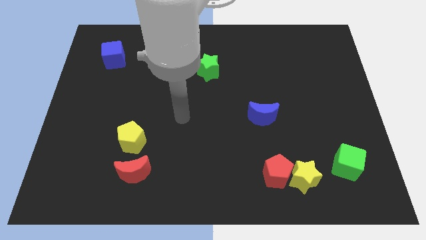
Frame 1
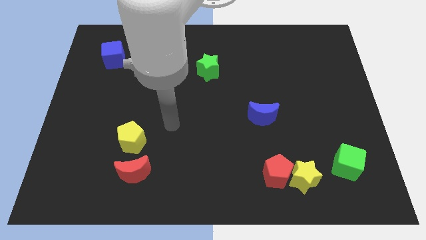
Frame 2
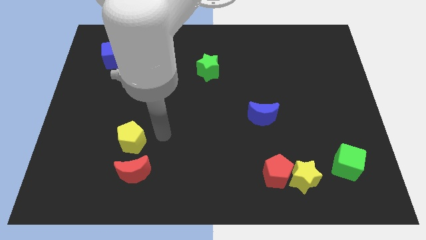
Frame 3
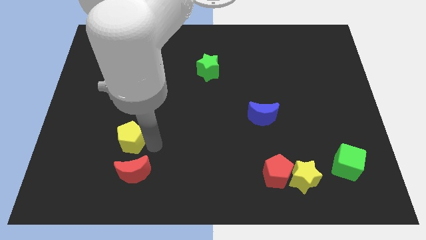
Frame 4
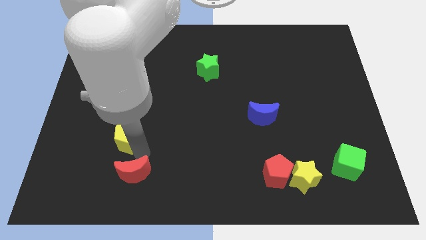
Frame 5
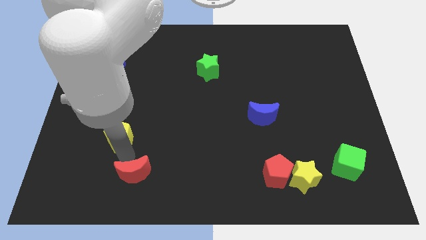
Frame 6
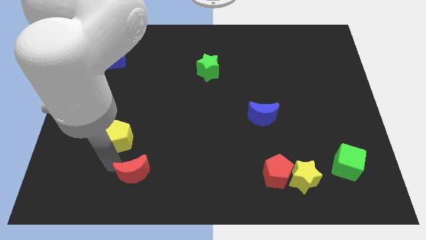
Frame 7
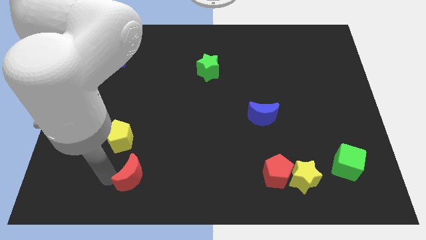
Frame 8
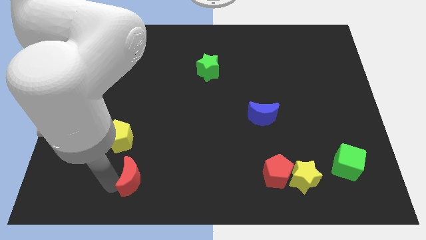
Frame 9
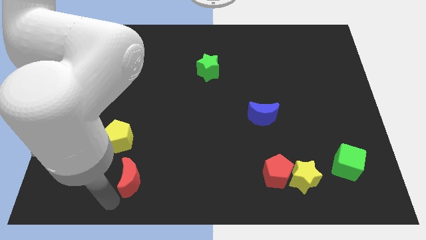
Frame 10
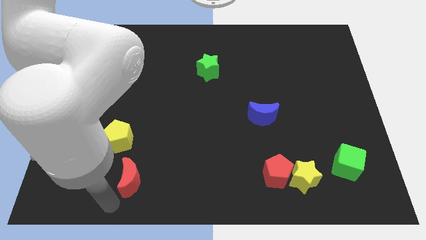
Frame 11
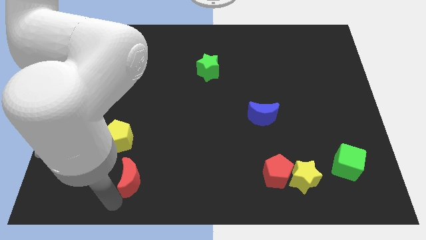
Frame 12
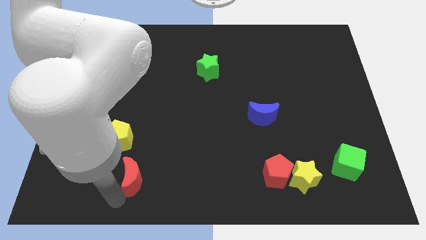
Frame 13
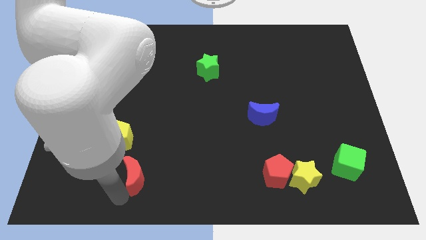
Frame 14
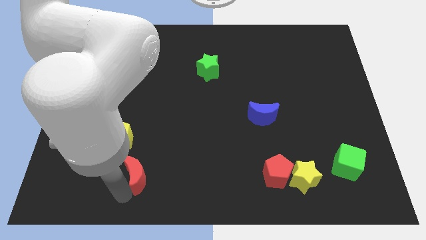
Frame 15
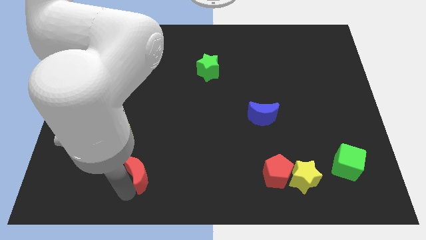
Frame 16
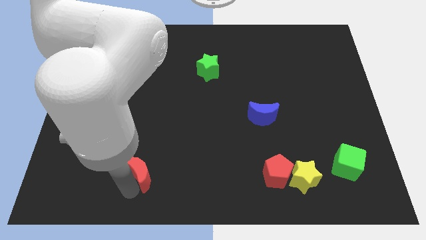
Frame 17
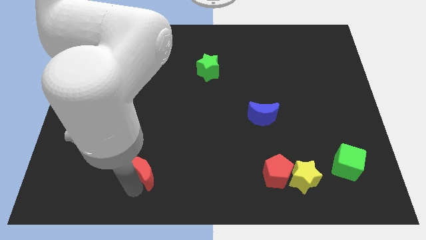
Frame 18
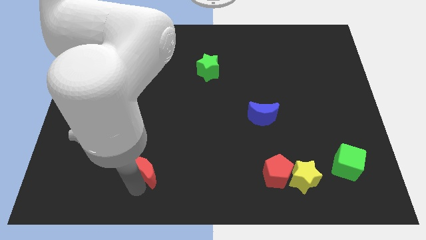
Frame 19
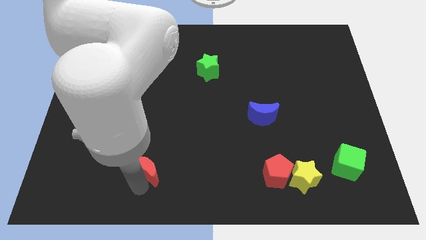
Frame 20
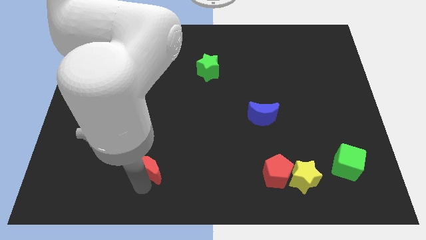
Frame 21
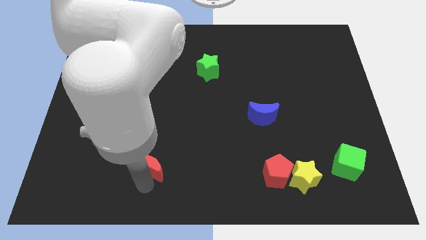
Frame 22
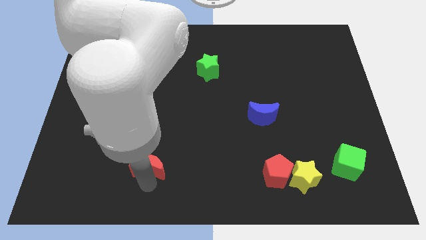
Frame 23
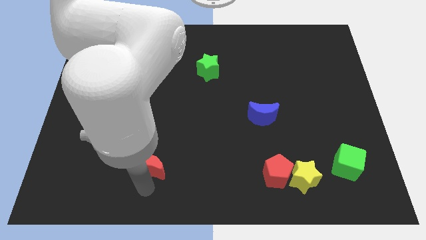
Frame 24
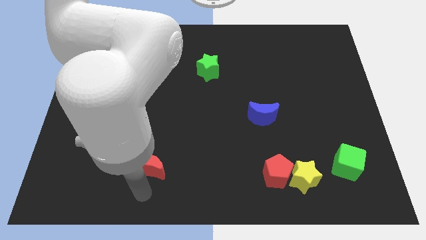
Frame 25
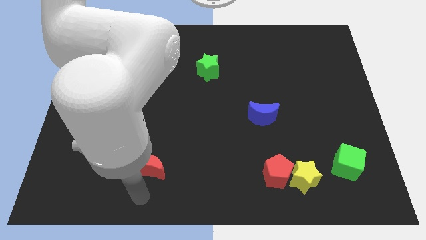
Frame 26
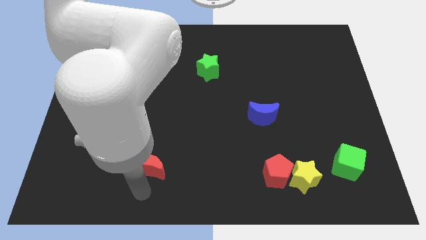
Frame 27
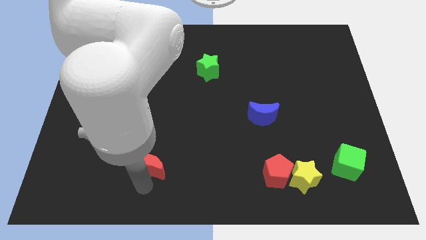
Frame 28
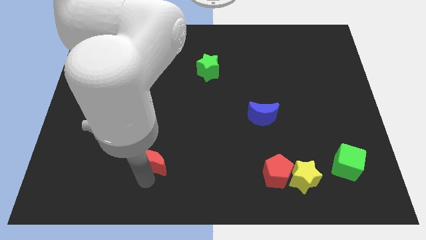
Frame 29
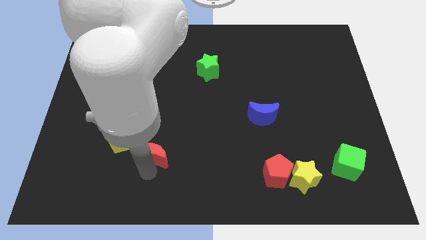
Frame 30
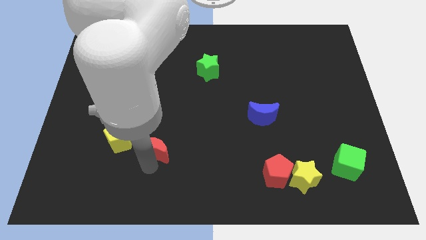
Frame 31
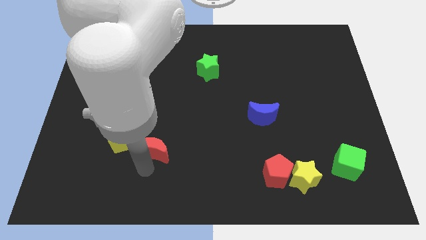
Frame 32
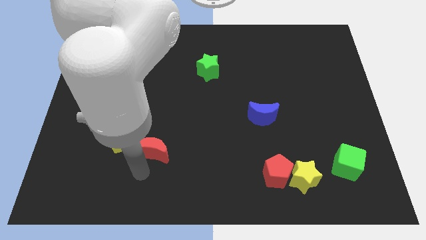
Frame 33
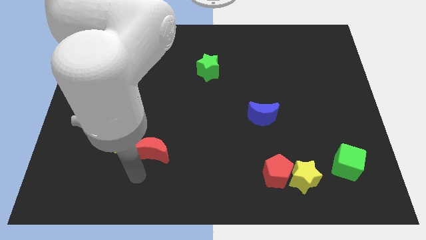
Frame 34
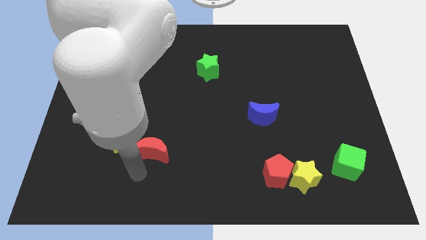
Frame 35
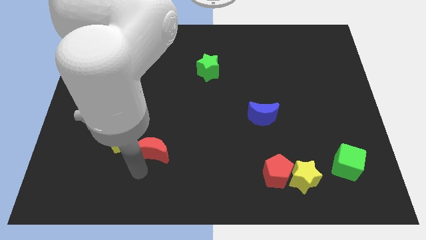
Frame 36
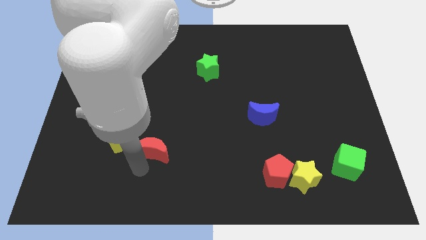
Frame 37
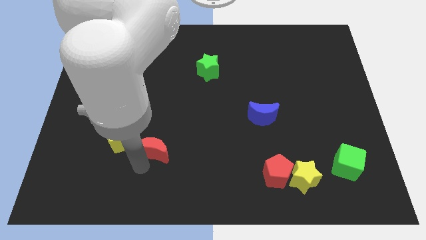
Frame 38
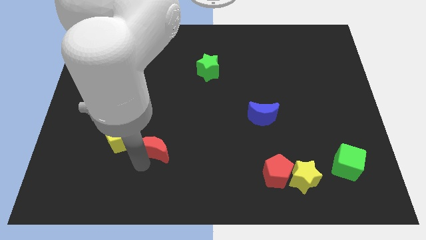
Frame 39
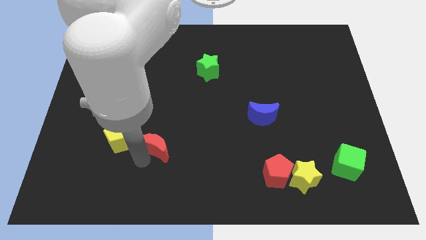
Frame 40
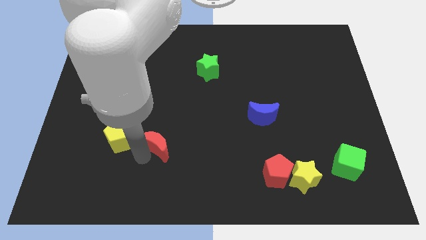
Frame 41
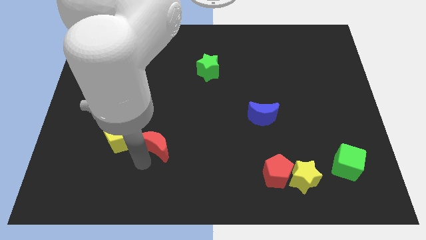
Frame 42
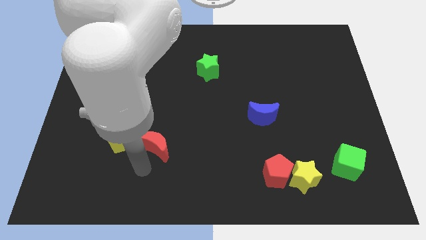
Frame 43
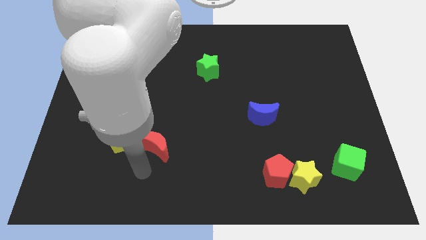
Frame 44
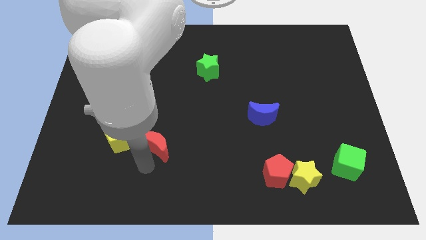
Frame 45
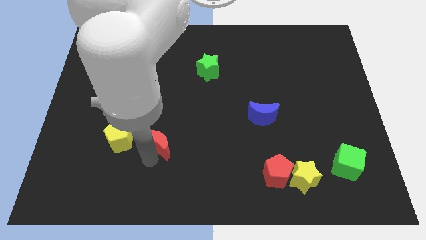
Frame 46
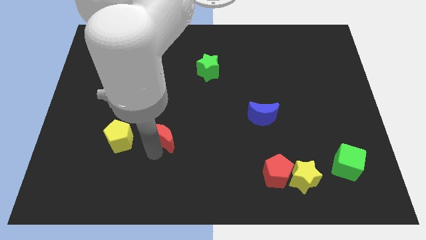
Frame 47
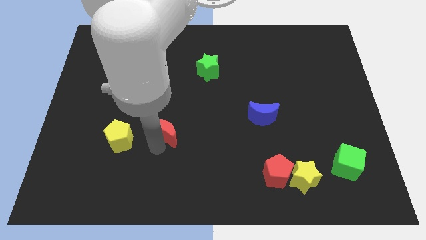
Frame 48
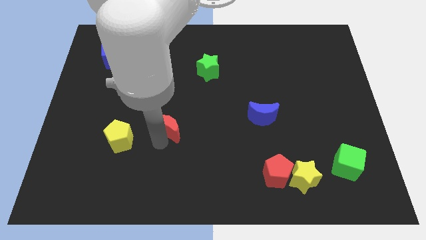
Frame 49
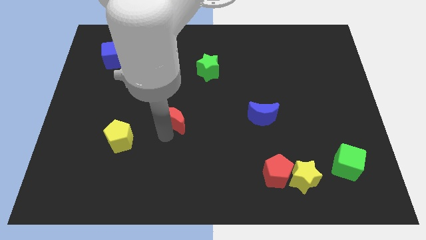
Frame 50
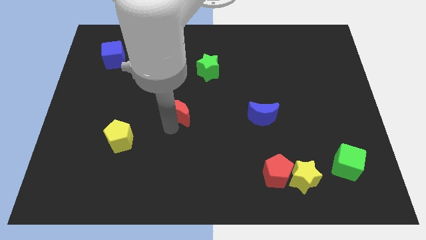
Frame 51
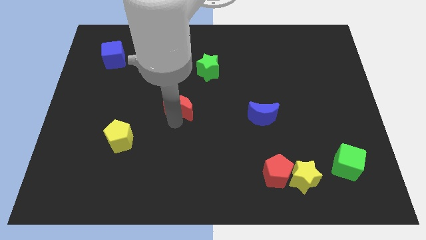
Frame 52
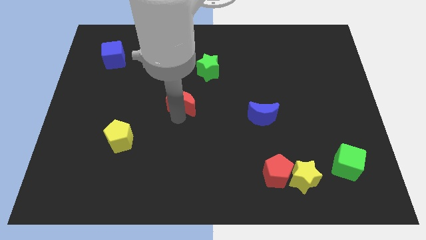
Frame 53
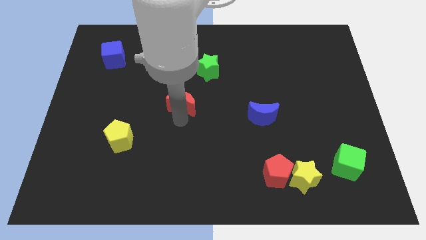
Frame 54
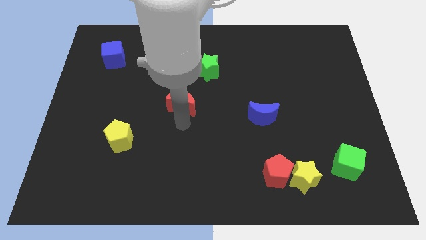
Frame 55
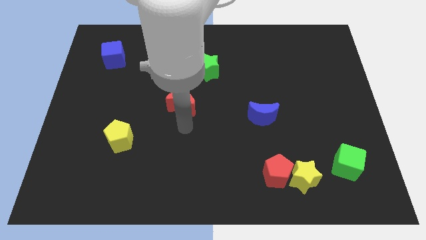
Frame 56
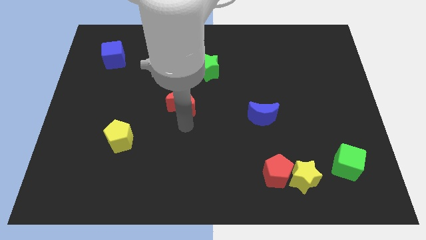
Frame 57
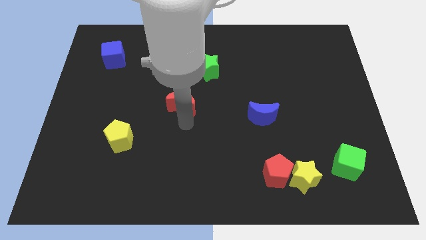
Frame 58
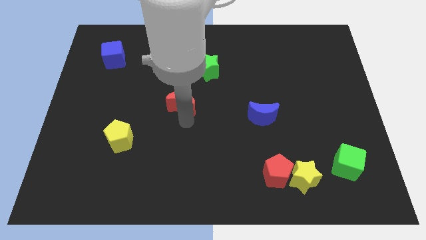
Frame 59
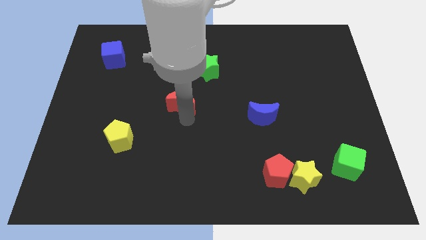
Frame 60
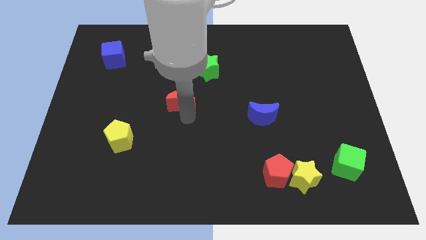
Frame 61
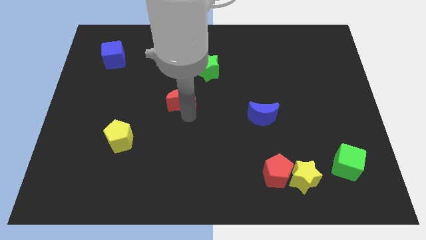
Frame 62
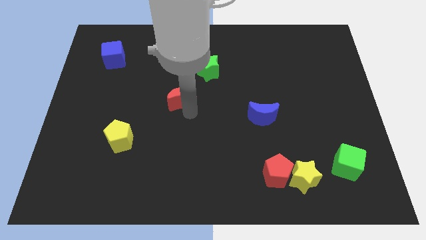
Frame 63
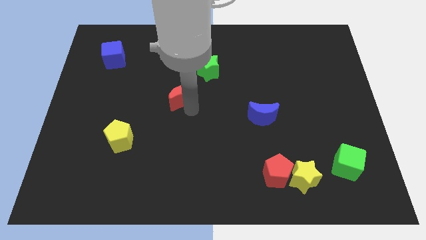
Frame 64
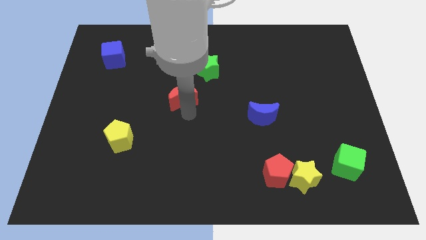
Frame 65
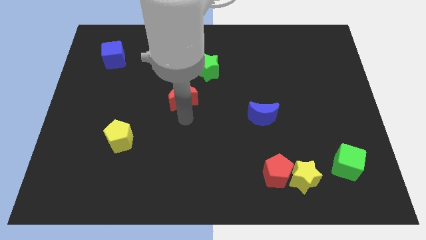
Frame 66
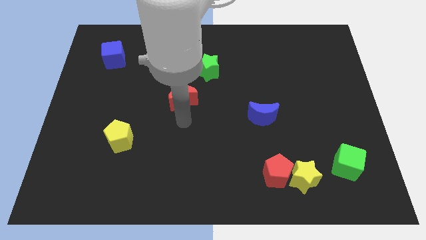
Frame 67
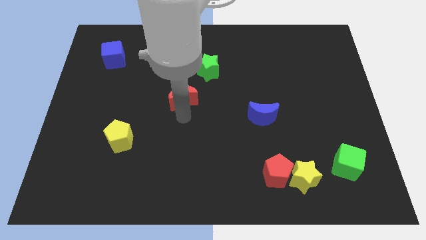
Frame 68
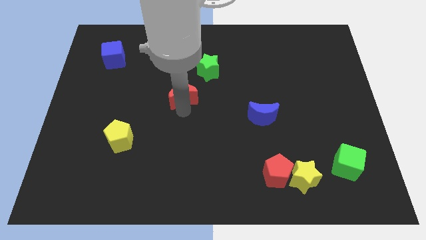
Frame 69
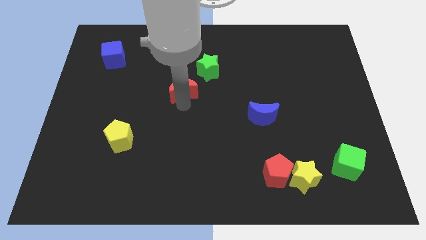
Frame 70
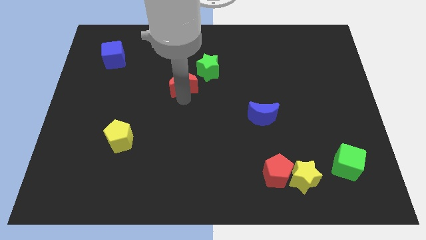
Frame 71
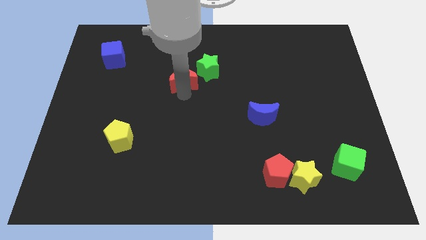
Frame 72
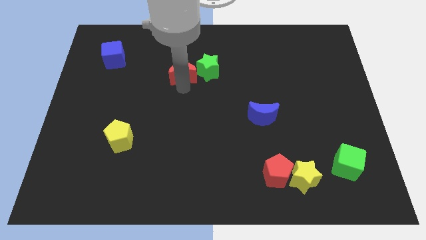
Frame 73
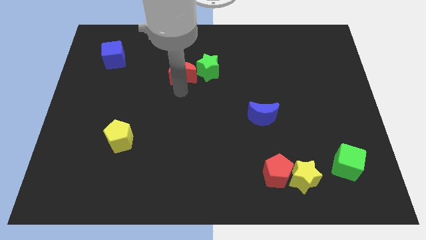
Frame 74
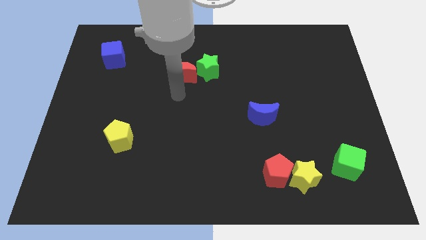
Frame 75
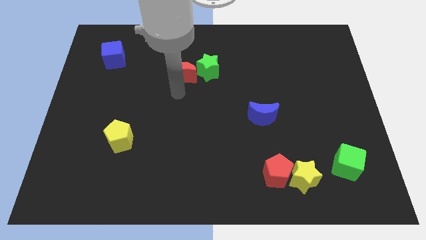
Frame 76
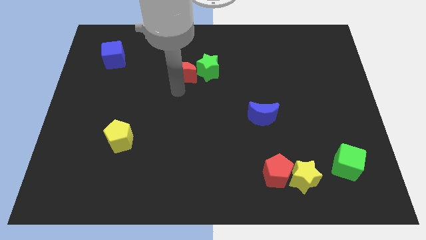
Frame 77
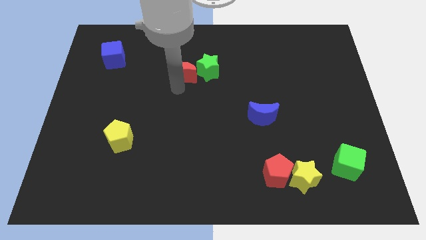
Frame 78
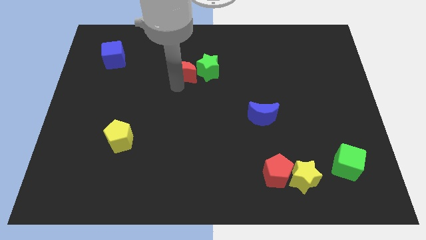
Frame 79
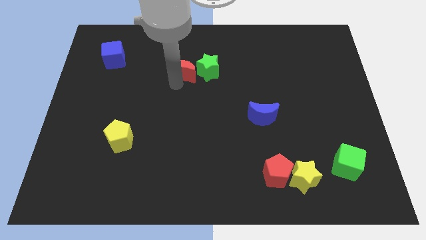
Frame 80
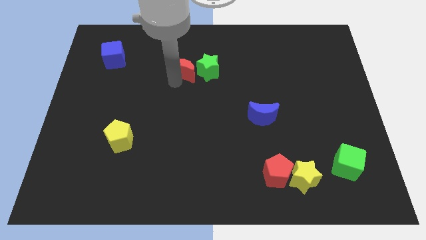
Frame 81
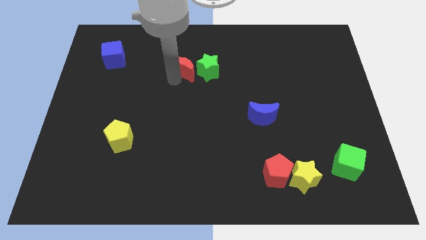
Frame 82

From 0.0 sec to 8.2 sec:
slide the red moon to the top left of the green star
